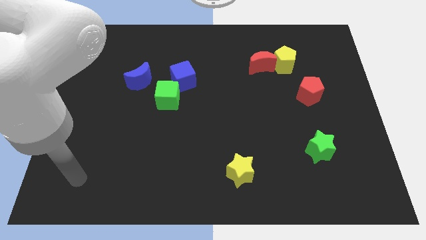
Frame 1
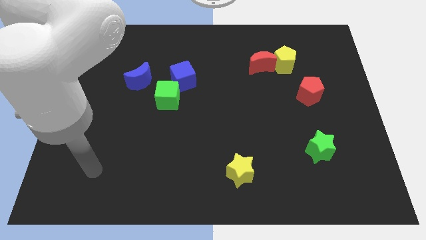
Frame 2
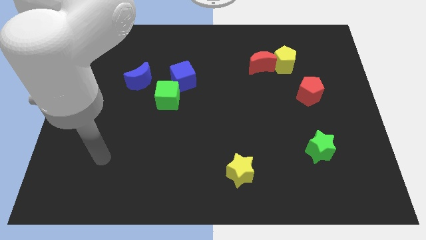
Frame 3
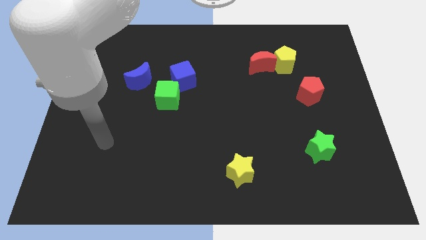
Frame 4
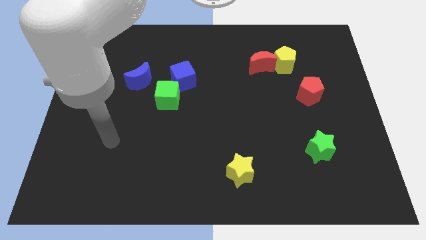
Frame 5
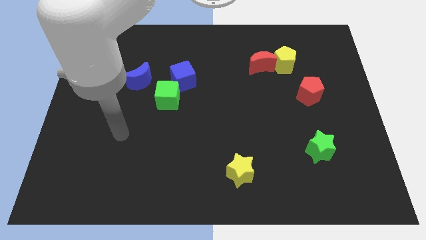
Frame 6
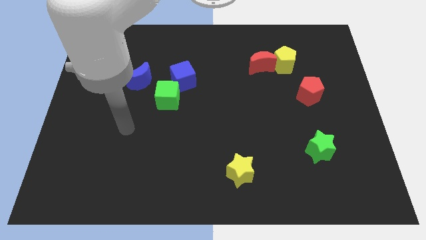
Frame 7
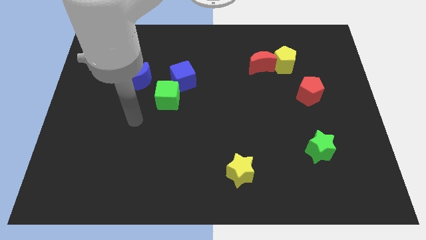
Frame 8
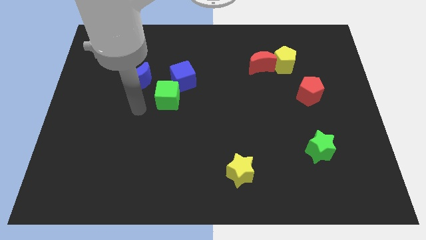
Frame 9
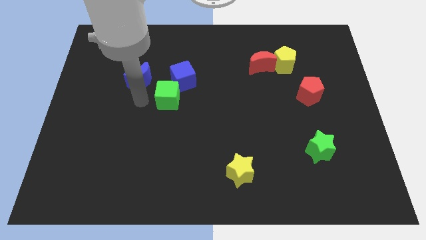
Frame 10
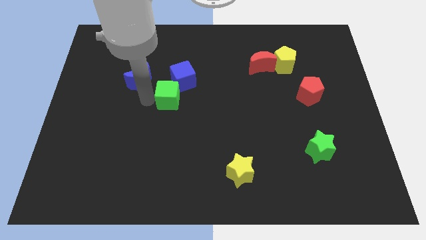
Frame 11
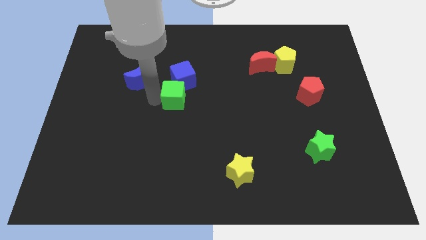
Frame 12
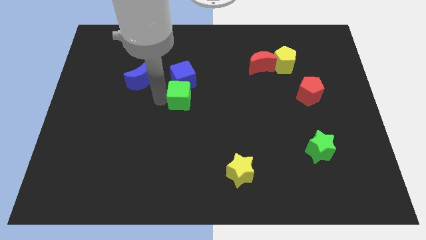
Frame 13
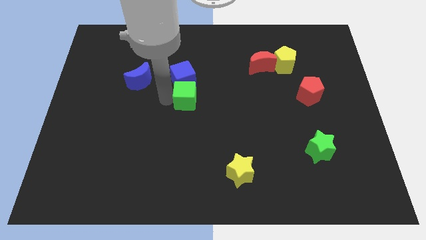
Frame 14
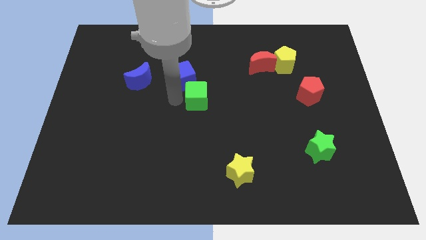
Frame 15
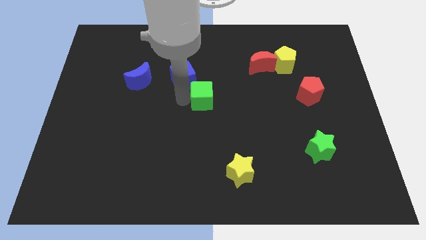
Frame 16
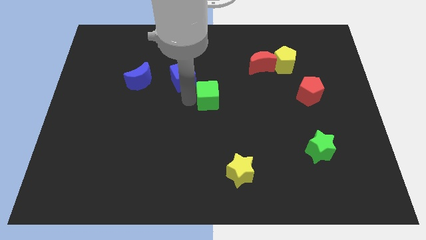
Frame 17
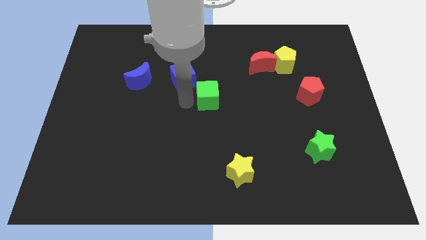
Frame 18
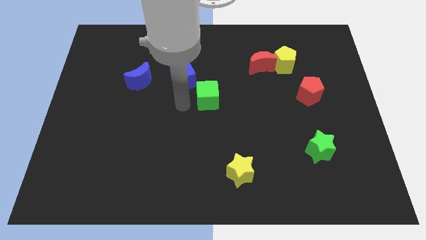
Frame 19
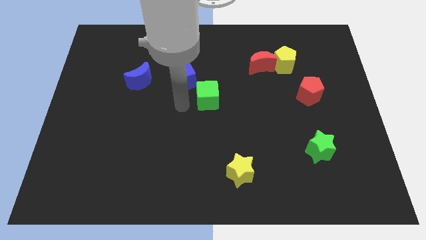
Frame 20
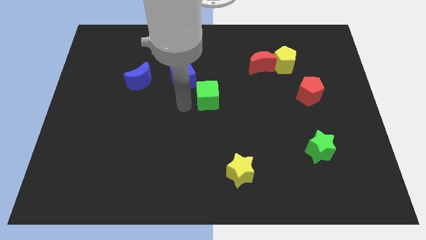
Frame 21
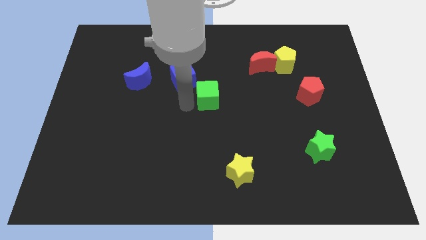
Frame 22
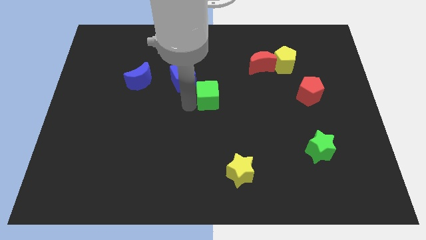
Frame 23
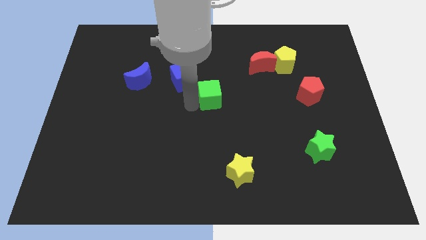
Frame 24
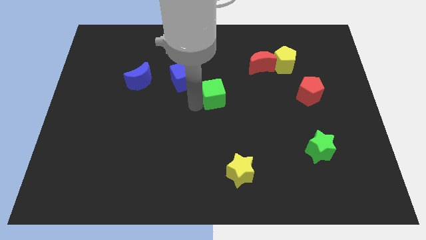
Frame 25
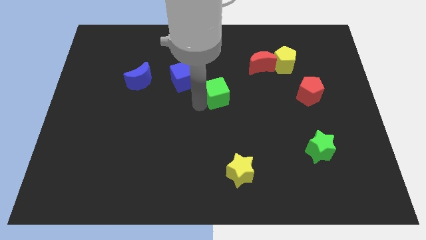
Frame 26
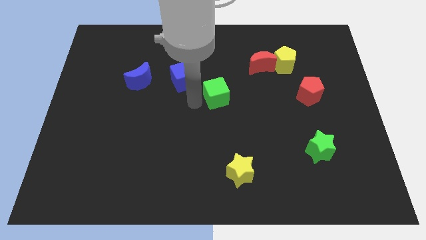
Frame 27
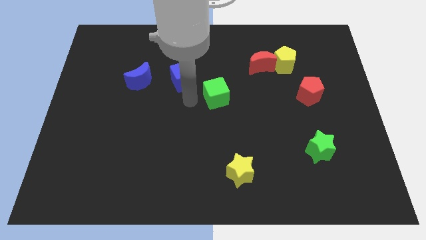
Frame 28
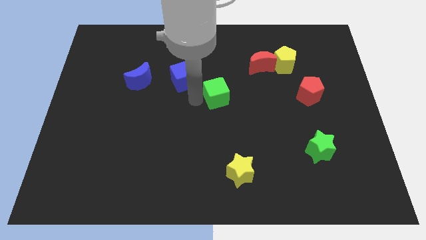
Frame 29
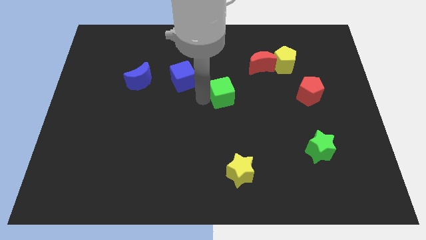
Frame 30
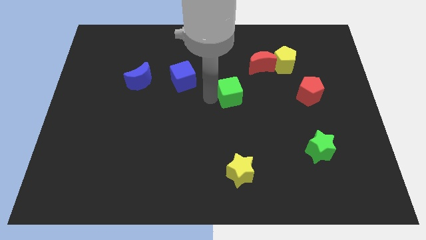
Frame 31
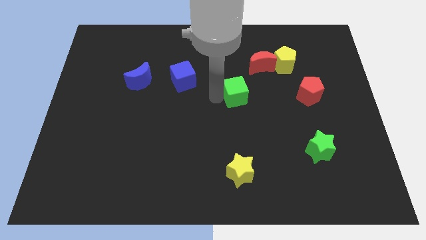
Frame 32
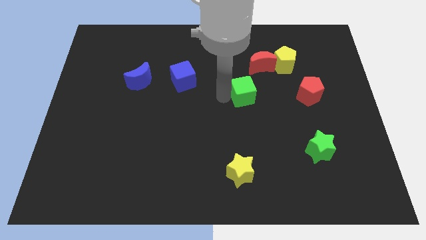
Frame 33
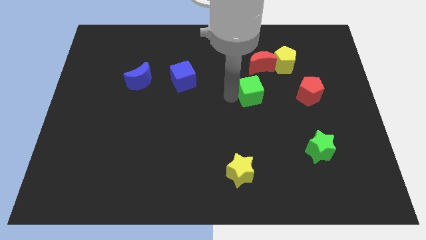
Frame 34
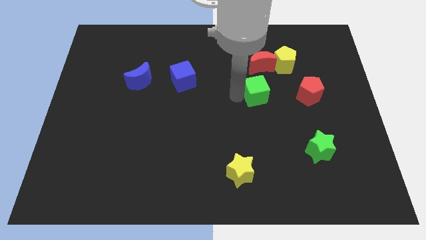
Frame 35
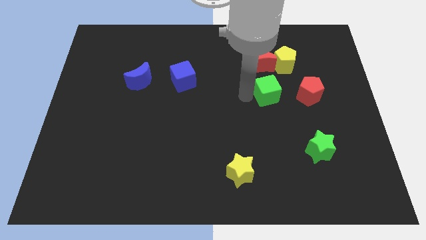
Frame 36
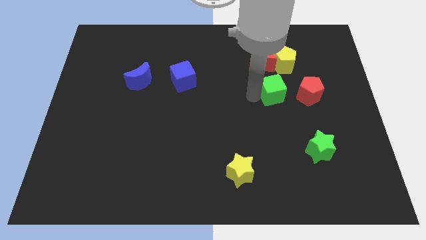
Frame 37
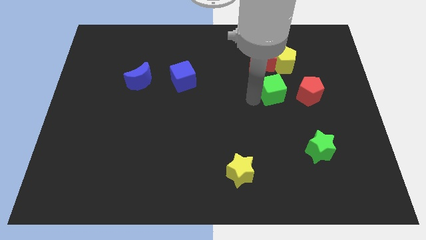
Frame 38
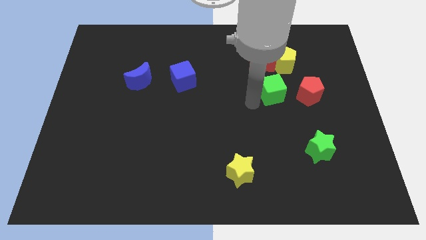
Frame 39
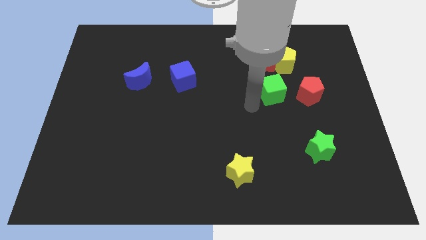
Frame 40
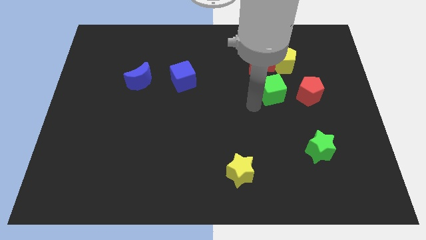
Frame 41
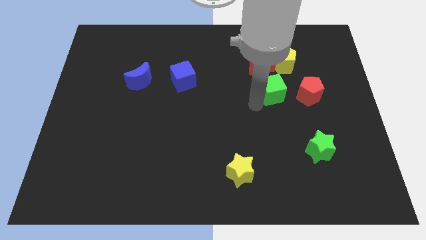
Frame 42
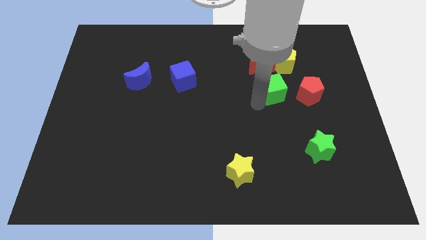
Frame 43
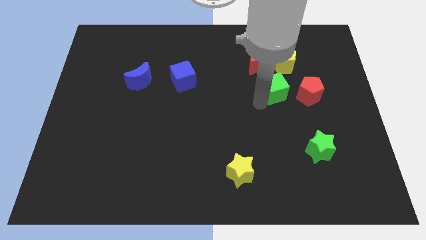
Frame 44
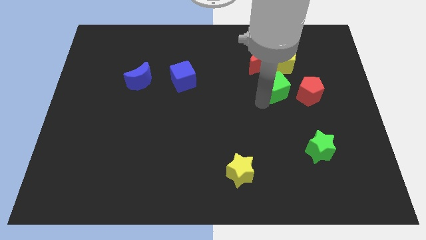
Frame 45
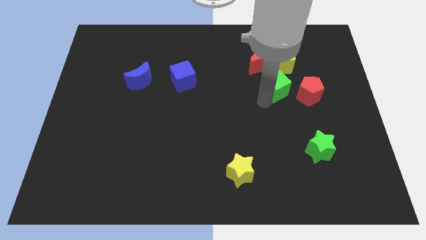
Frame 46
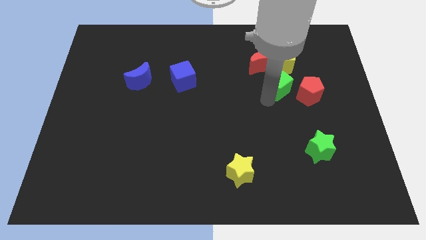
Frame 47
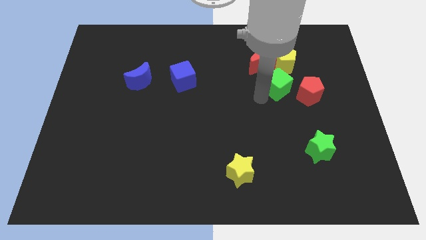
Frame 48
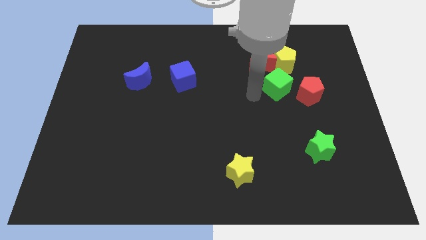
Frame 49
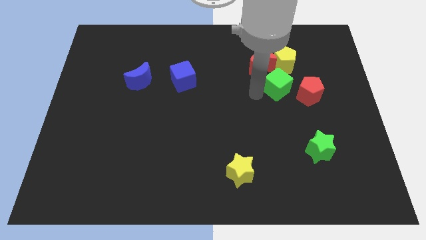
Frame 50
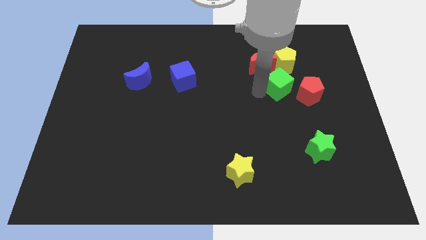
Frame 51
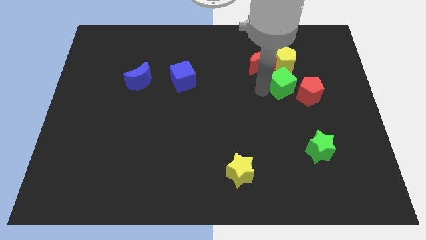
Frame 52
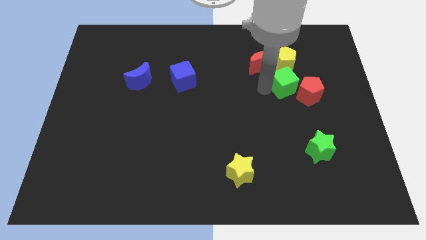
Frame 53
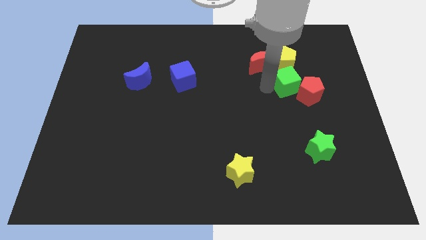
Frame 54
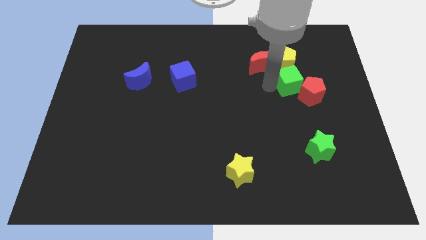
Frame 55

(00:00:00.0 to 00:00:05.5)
push the green cube diagonally down and to the right of the yellow pentagon

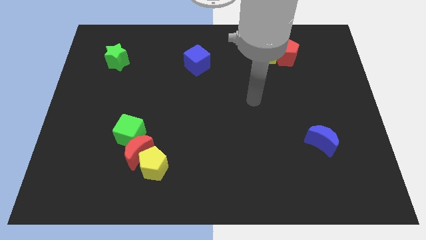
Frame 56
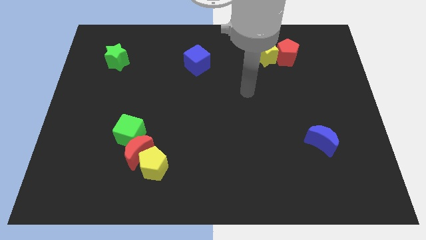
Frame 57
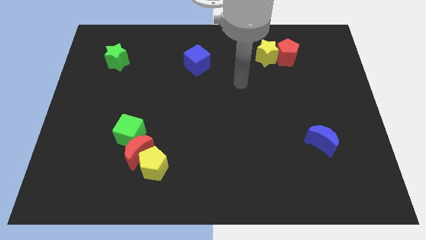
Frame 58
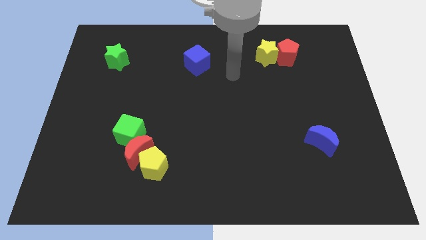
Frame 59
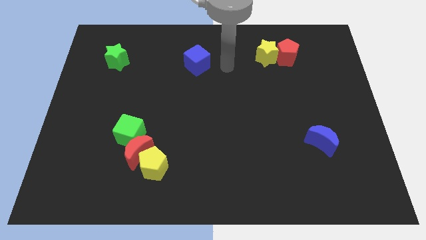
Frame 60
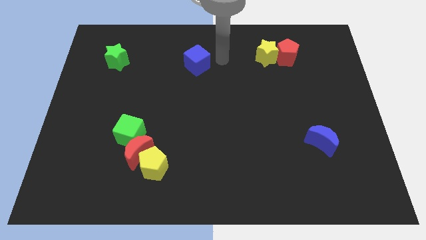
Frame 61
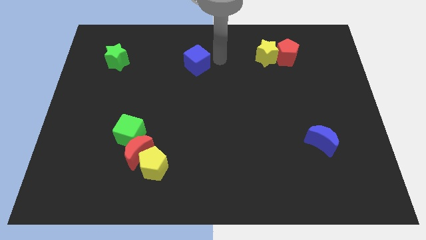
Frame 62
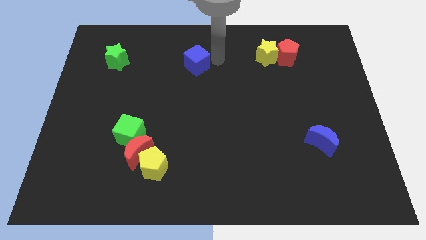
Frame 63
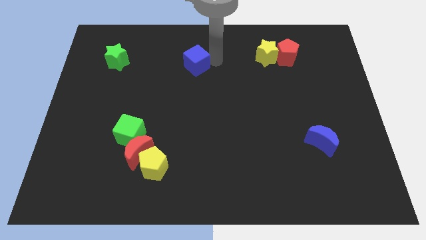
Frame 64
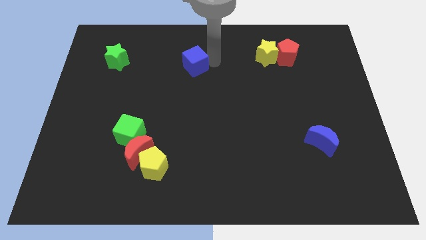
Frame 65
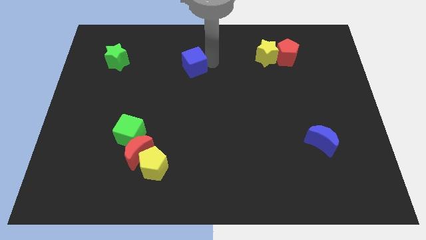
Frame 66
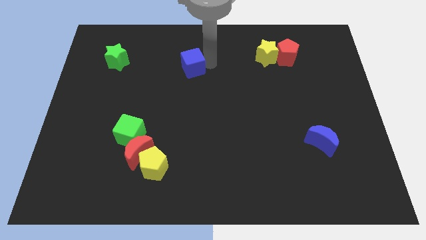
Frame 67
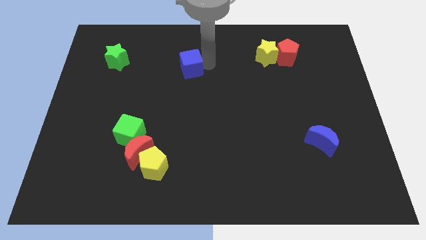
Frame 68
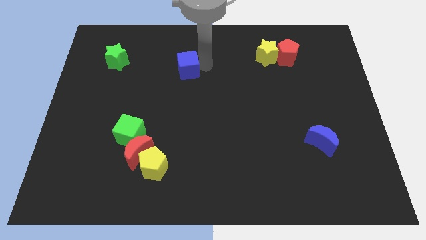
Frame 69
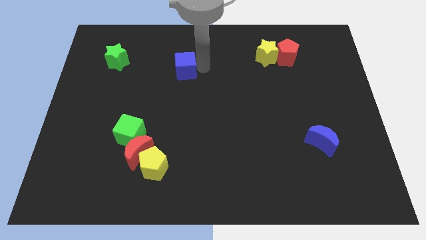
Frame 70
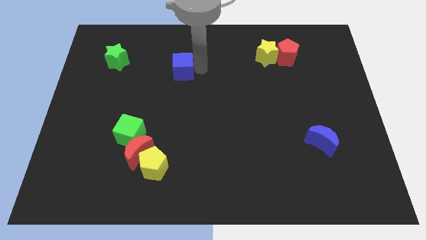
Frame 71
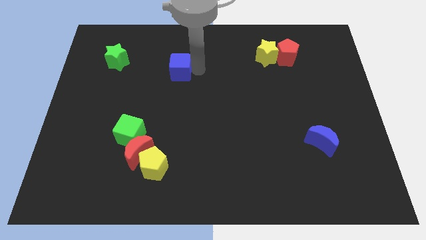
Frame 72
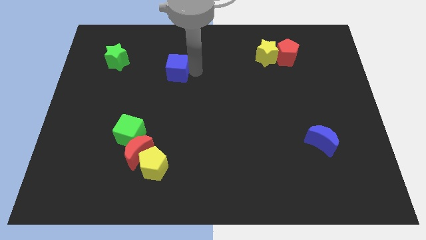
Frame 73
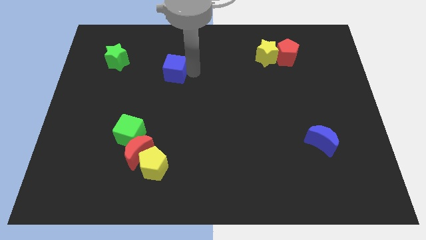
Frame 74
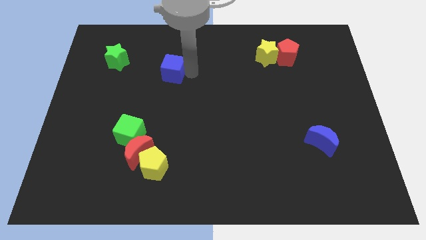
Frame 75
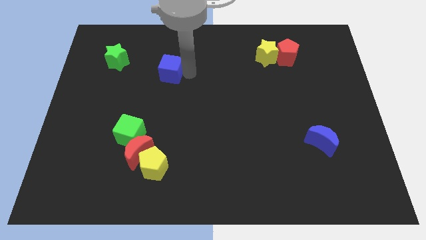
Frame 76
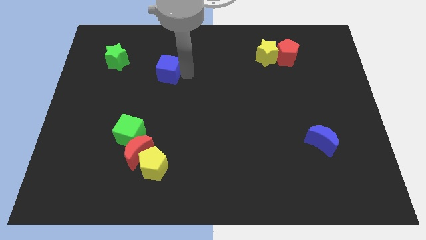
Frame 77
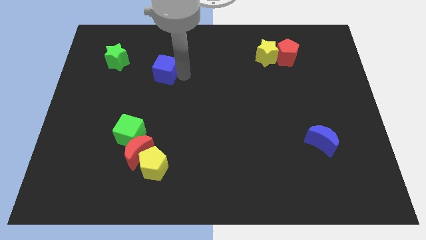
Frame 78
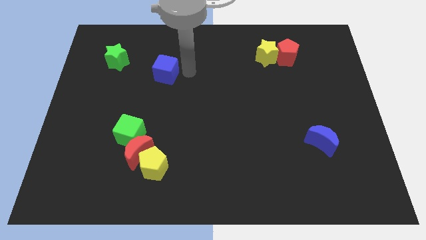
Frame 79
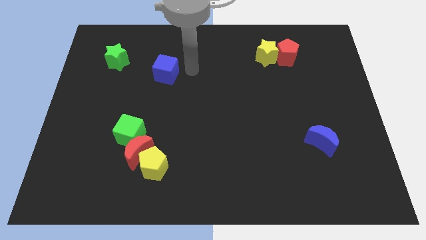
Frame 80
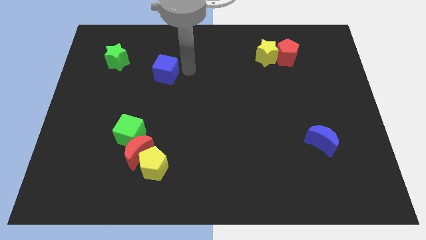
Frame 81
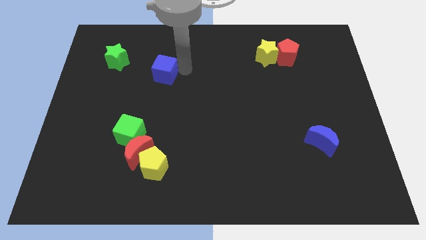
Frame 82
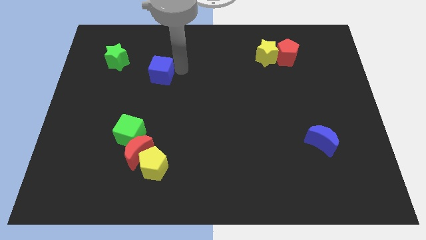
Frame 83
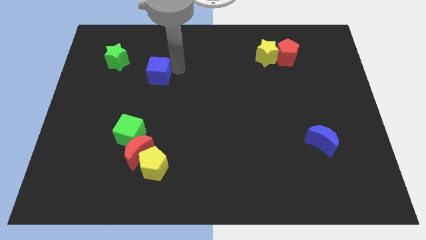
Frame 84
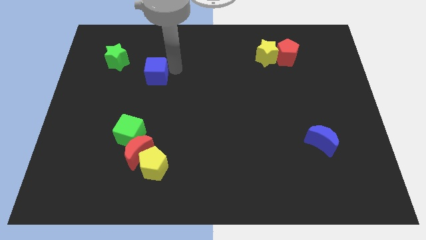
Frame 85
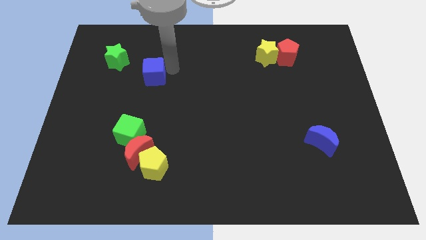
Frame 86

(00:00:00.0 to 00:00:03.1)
put the blue cube diagonally down and to the right of the green star
